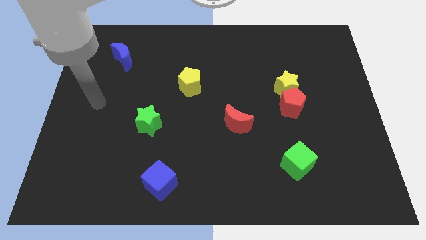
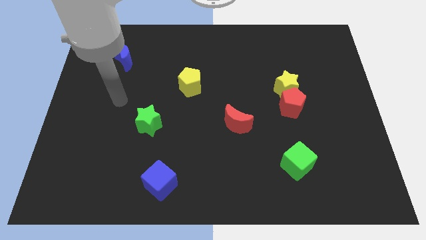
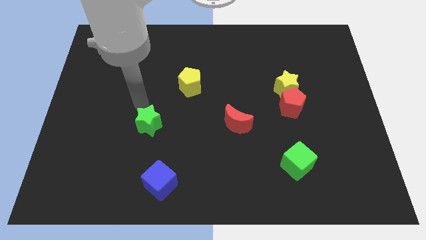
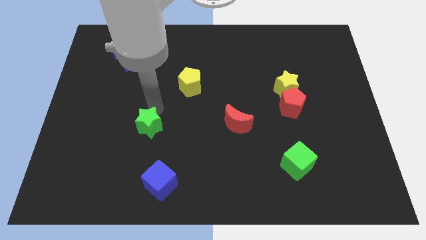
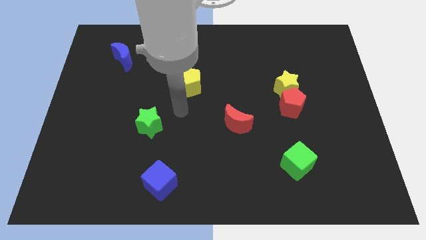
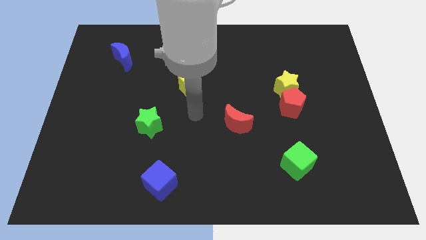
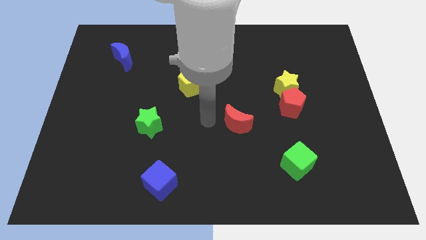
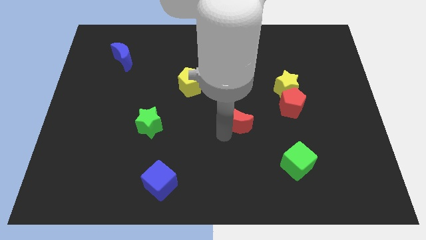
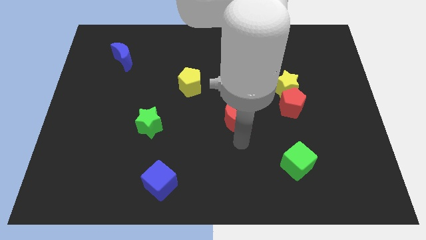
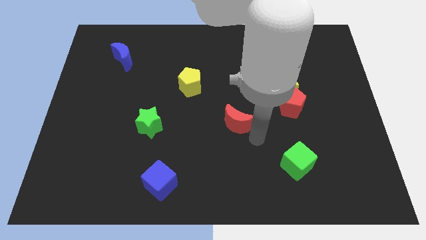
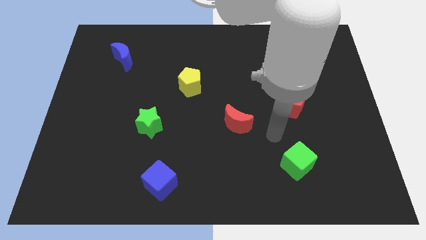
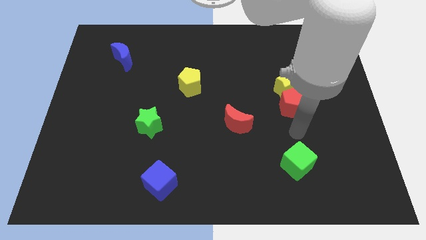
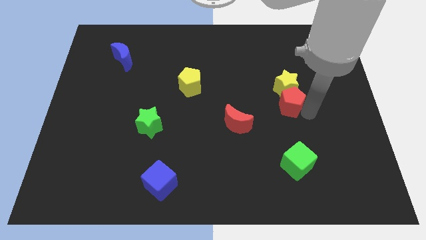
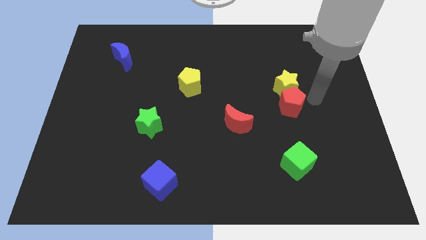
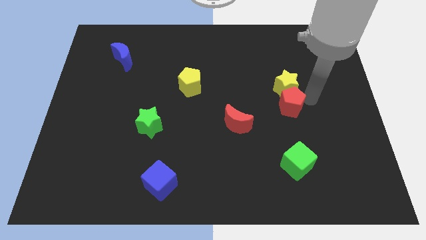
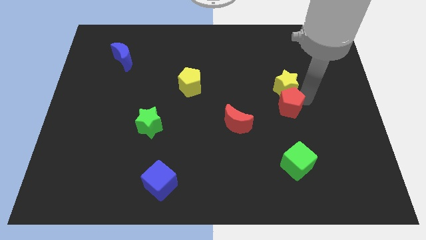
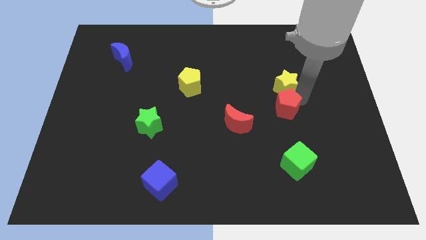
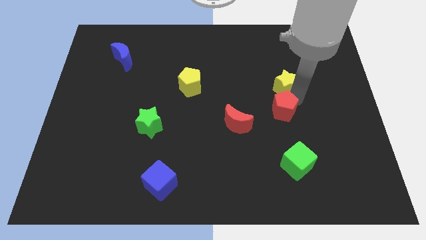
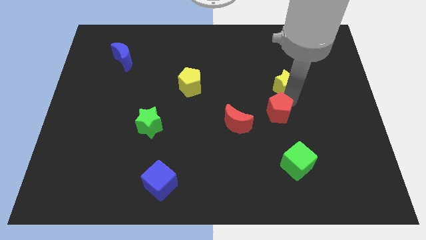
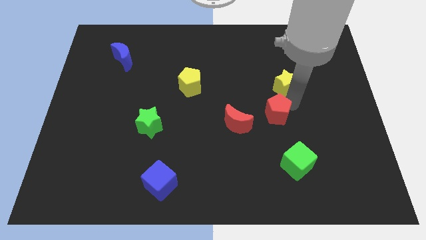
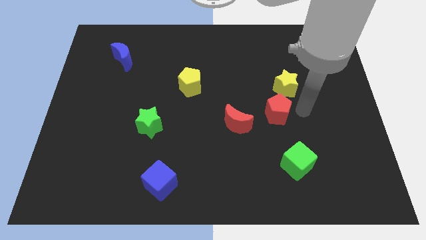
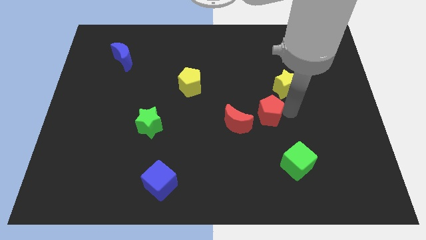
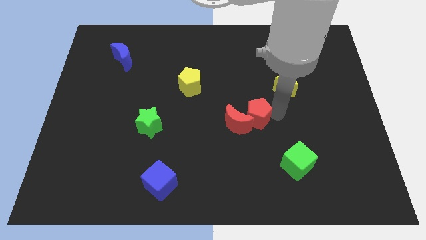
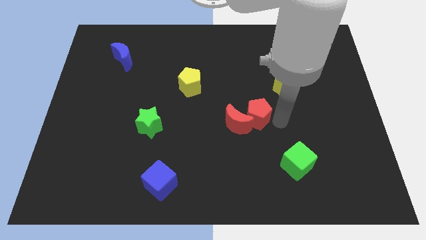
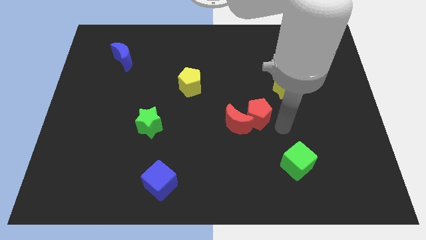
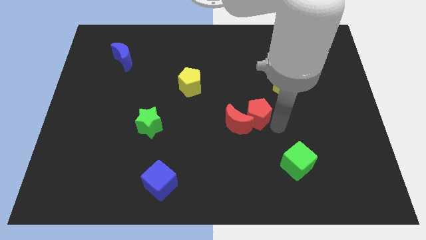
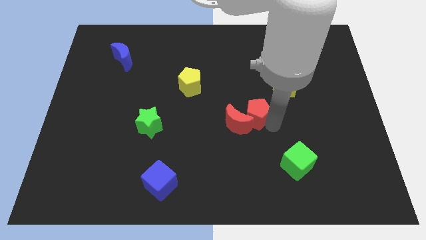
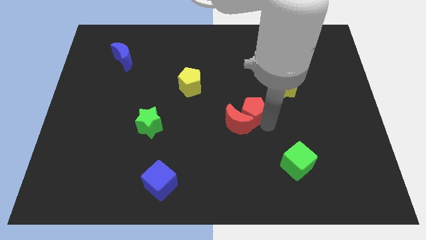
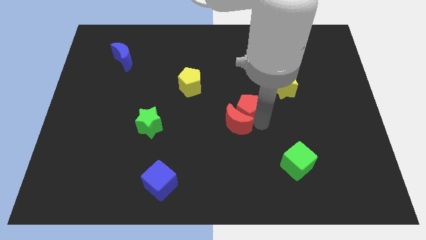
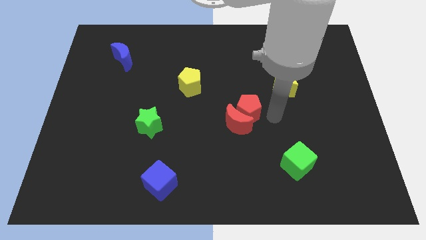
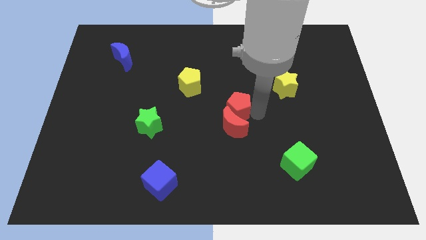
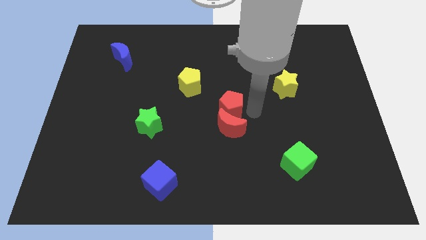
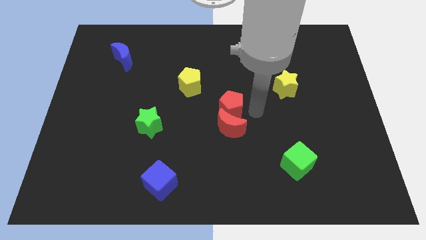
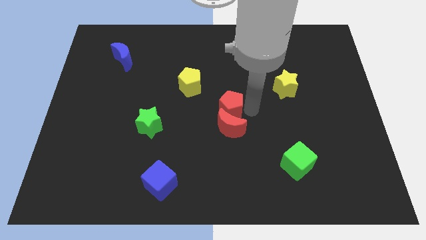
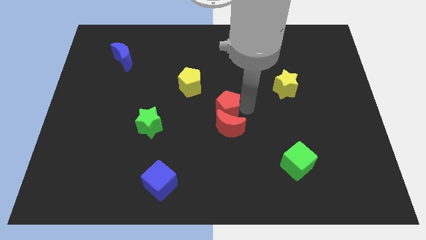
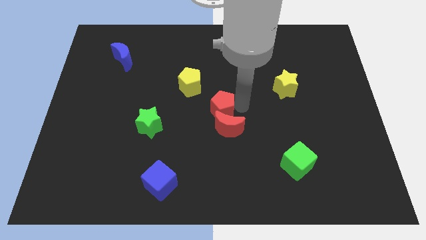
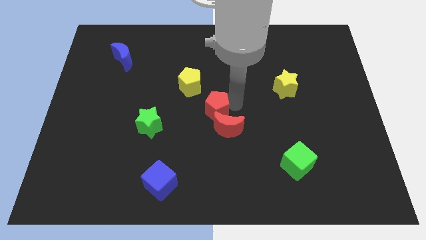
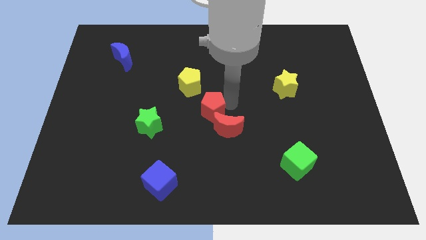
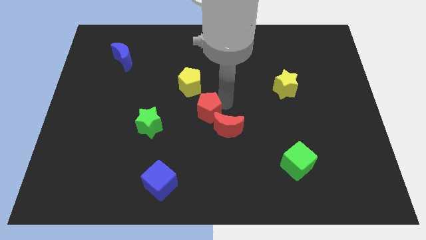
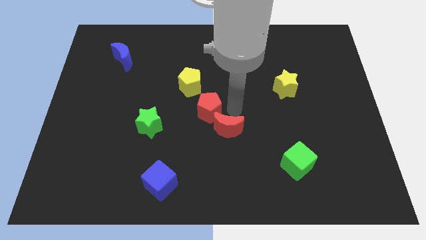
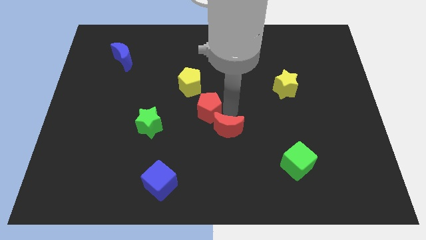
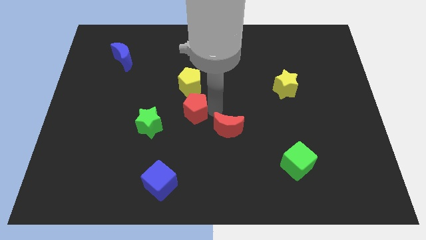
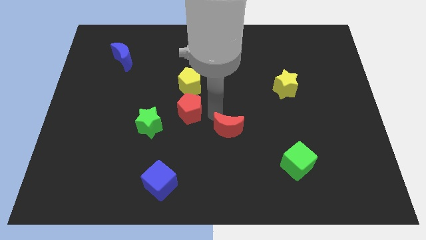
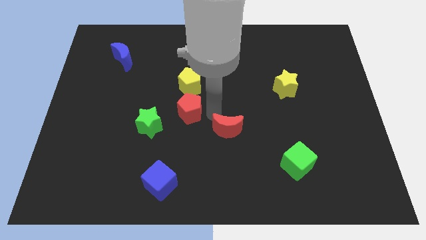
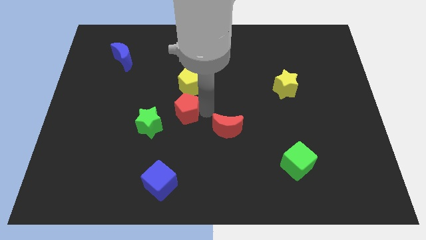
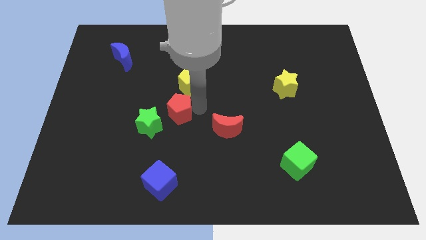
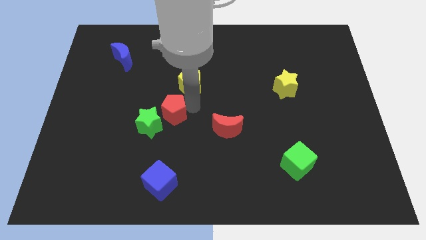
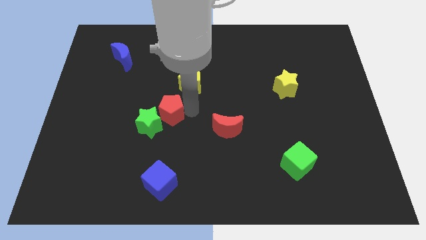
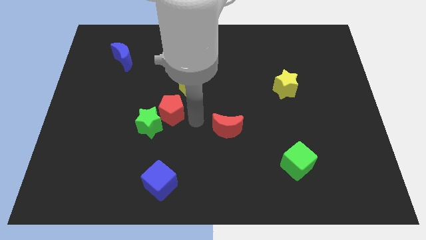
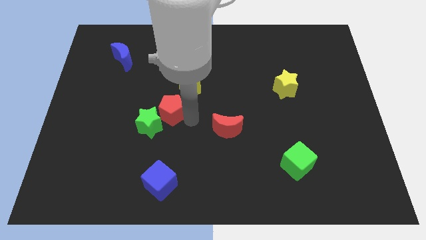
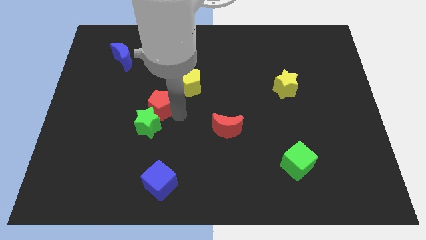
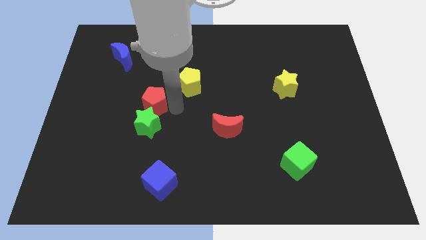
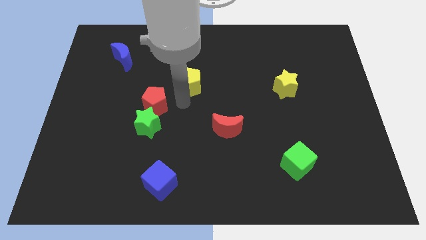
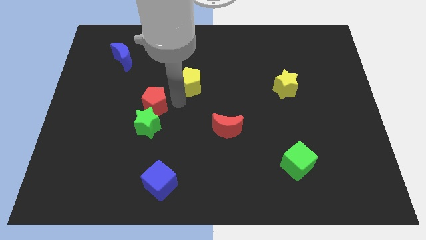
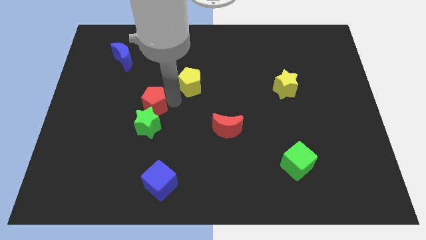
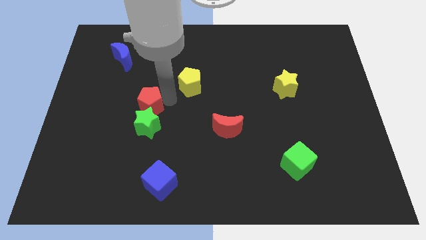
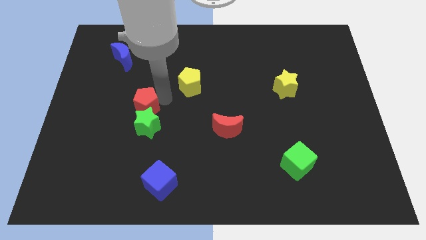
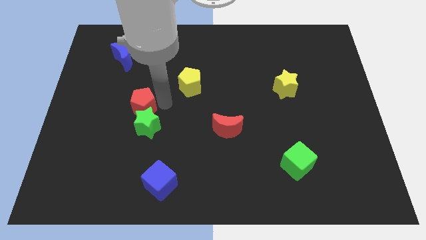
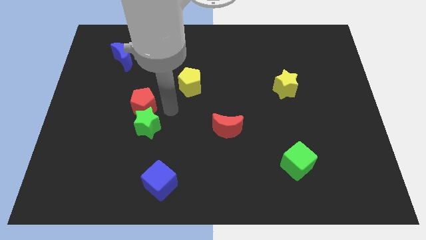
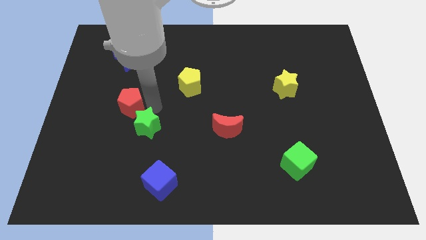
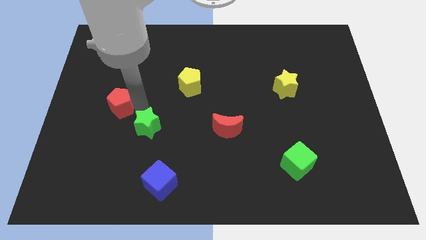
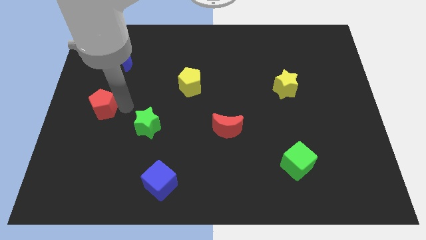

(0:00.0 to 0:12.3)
put the red pentagon to the left side of the board

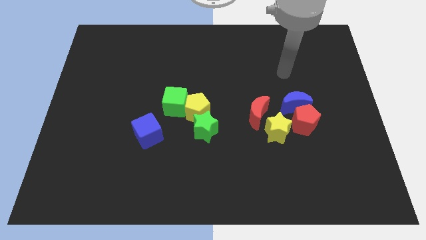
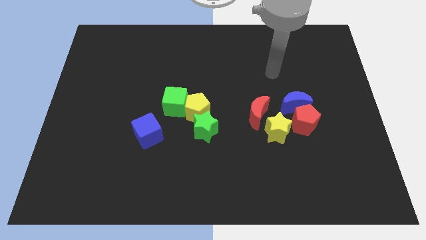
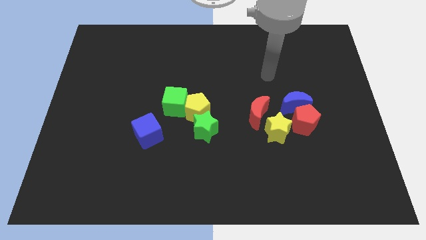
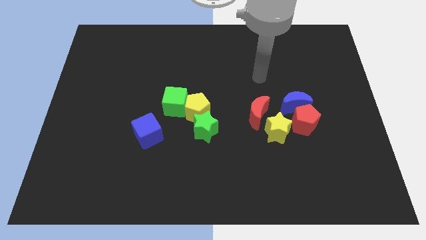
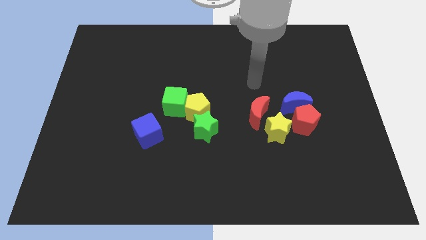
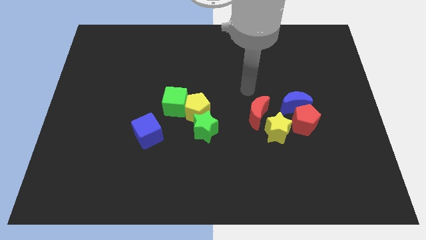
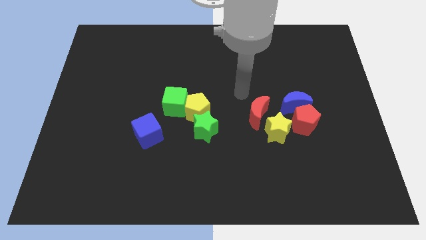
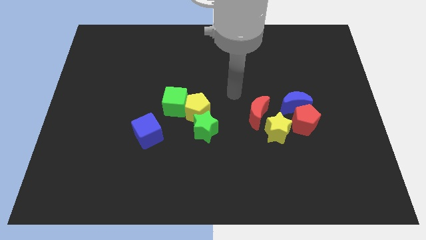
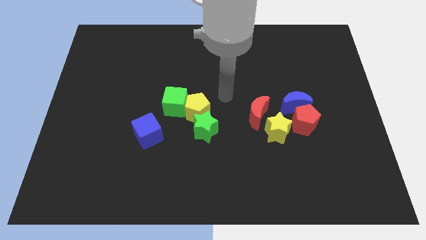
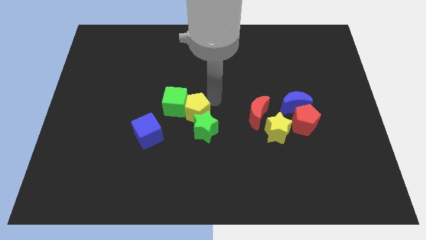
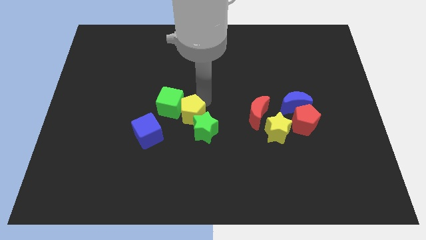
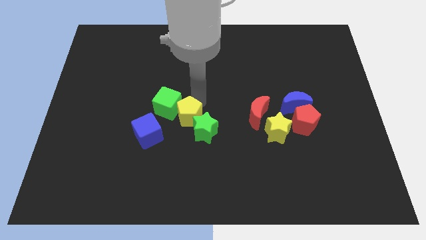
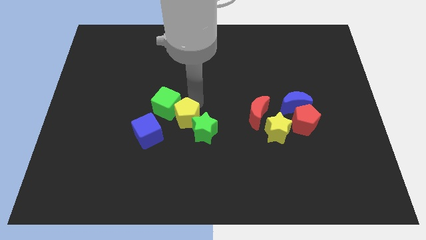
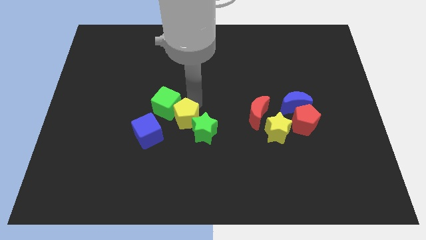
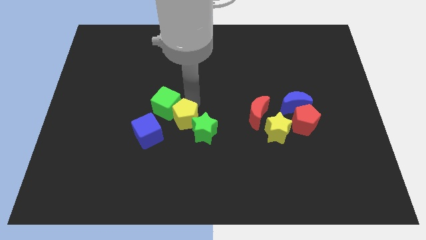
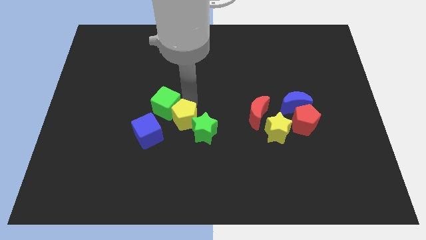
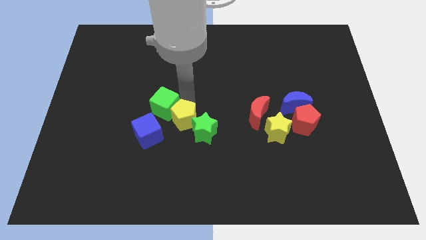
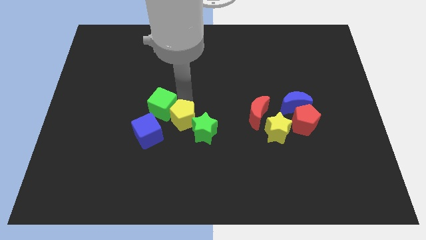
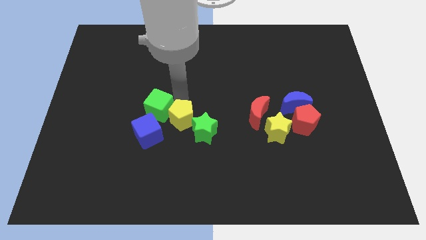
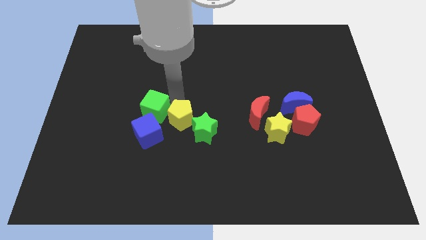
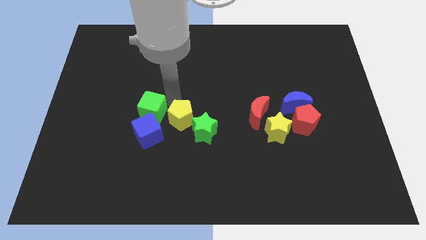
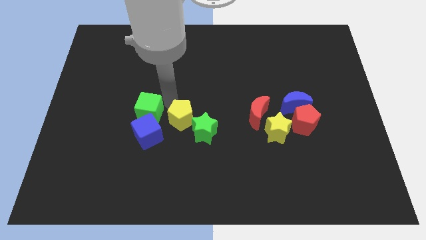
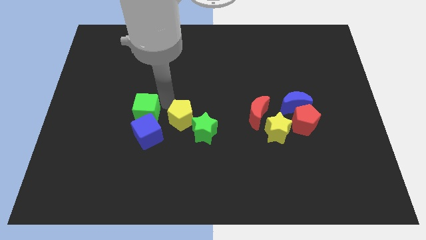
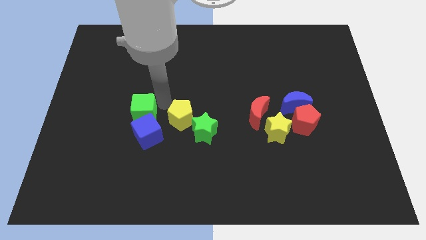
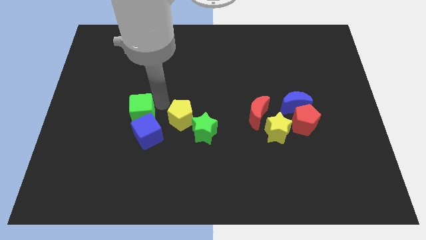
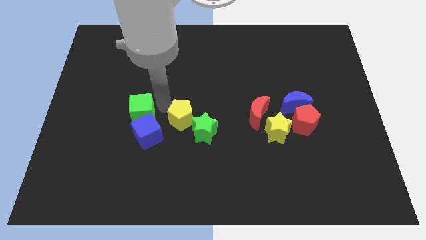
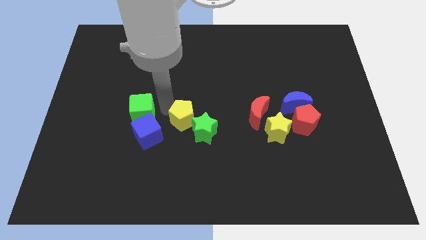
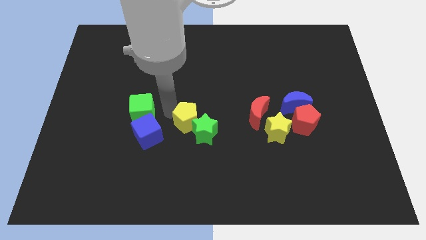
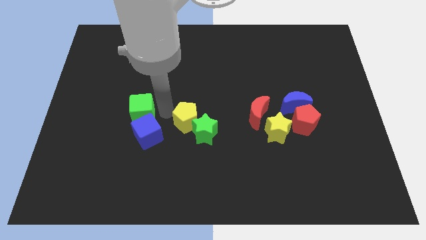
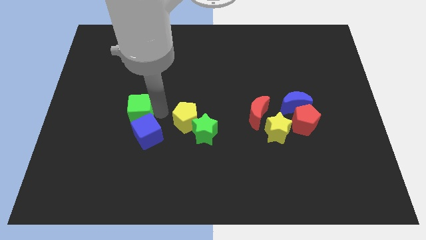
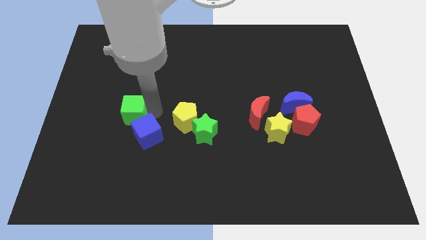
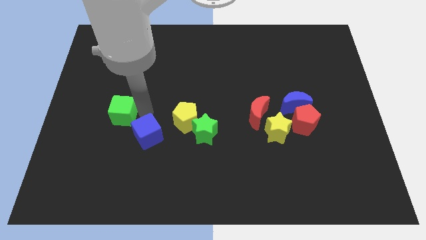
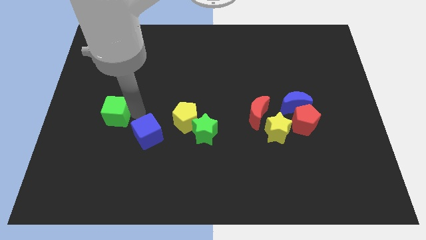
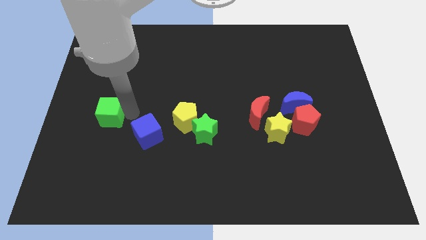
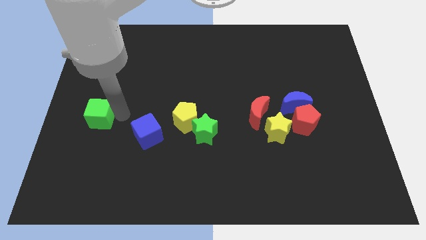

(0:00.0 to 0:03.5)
push the green cube to the left side of the board
